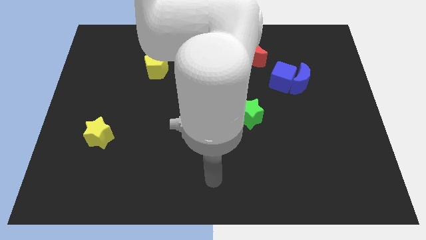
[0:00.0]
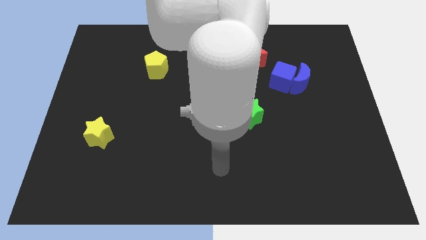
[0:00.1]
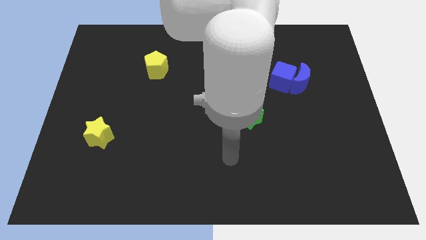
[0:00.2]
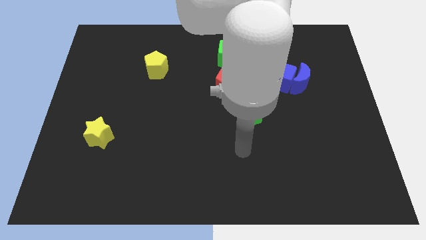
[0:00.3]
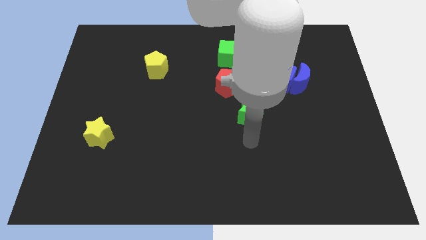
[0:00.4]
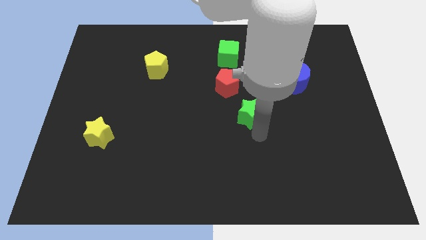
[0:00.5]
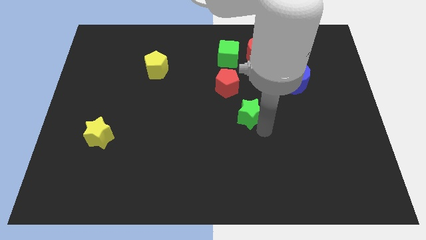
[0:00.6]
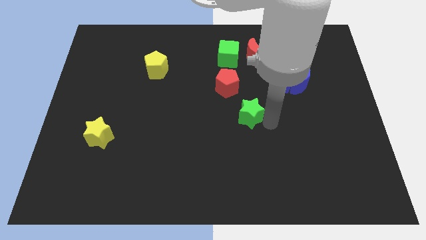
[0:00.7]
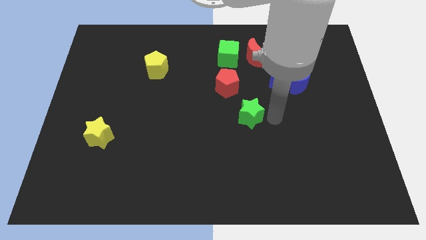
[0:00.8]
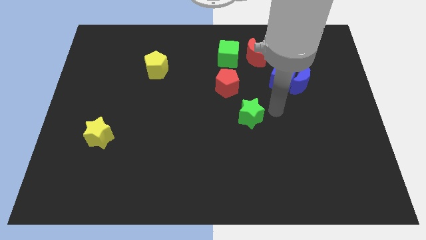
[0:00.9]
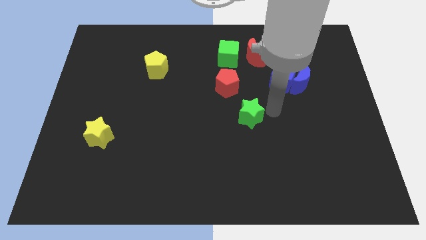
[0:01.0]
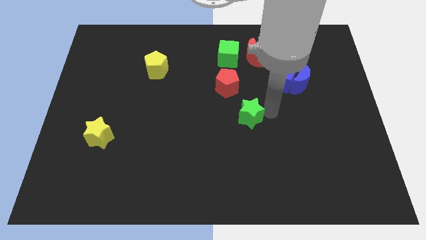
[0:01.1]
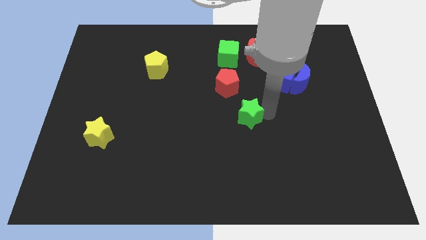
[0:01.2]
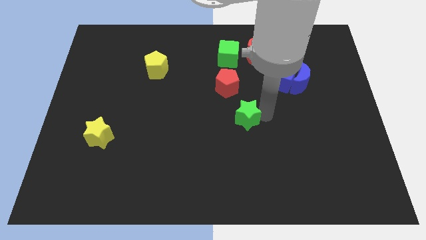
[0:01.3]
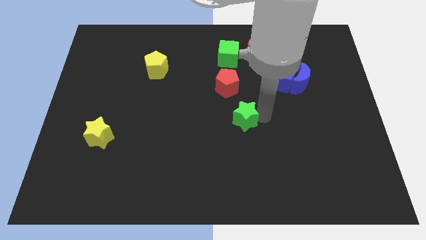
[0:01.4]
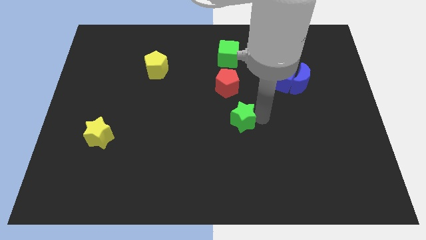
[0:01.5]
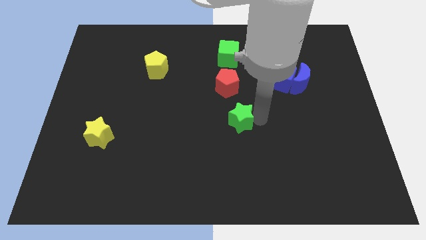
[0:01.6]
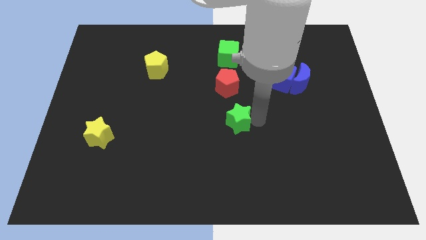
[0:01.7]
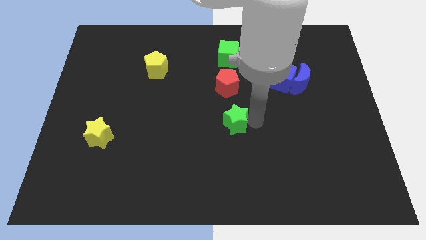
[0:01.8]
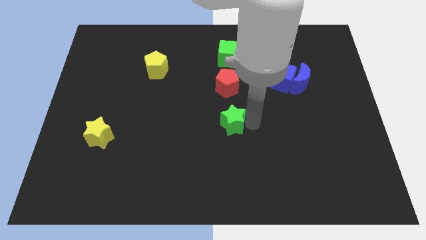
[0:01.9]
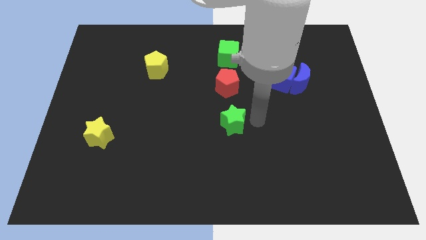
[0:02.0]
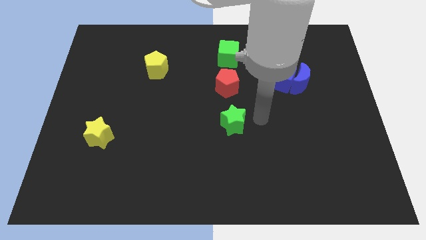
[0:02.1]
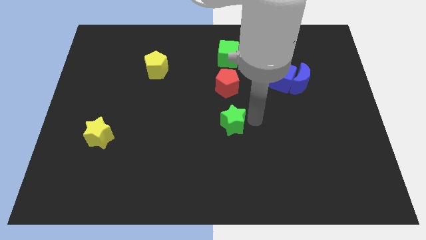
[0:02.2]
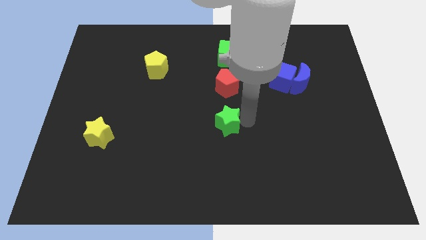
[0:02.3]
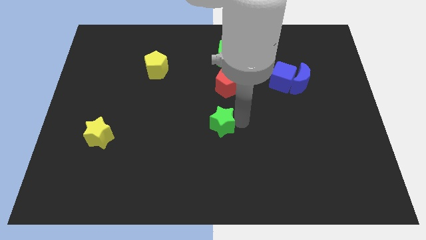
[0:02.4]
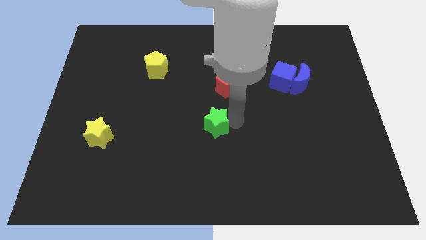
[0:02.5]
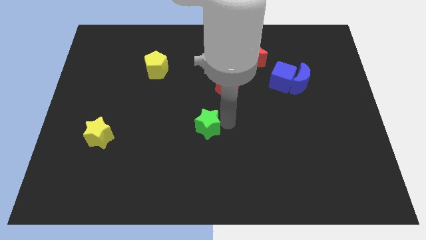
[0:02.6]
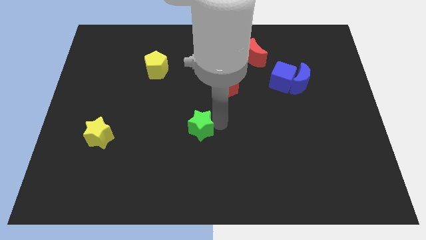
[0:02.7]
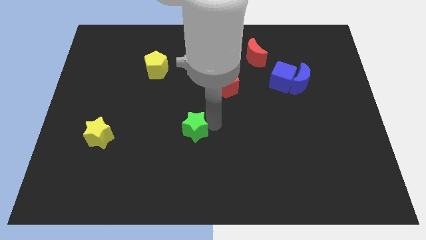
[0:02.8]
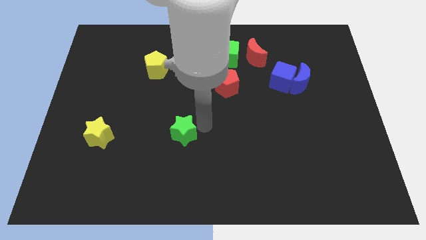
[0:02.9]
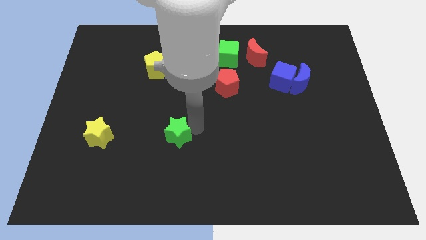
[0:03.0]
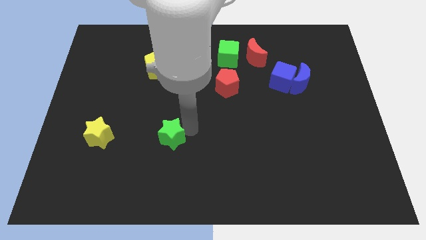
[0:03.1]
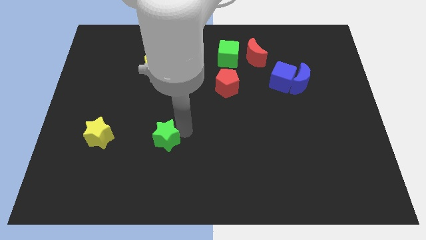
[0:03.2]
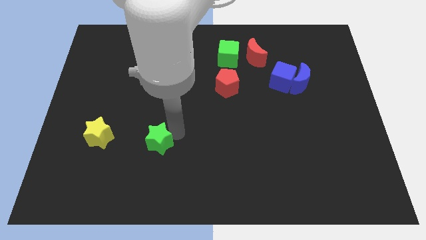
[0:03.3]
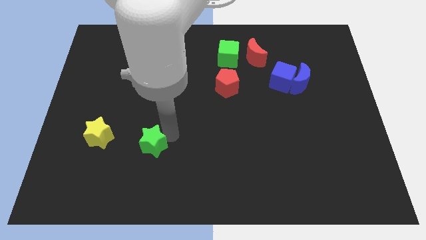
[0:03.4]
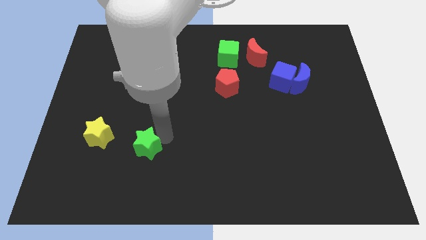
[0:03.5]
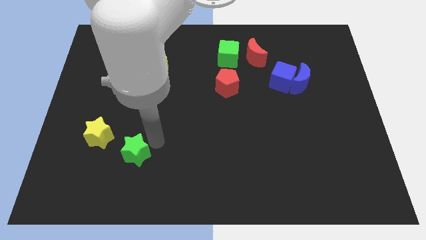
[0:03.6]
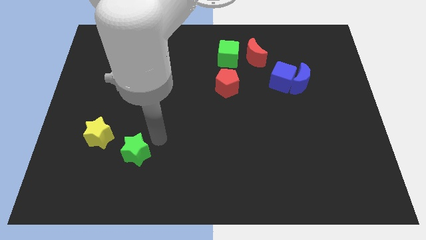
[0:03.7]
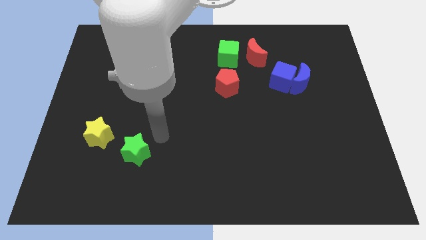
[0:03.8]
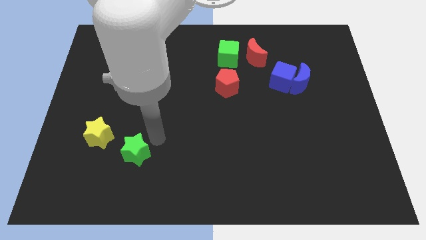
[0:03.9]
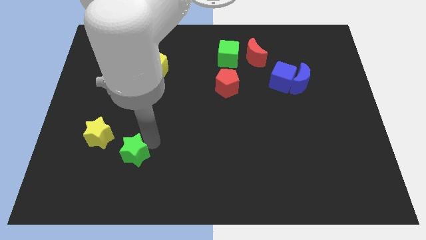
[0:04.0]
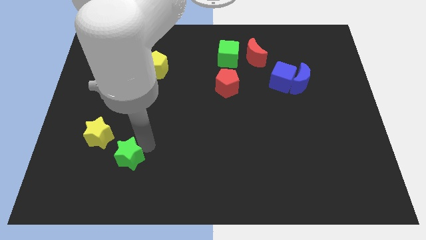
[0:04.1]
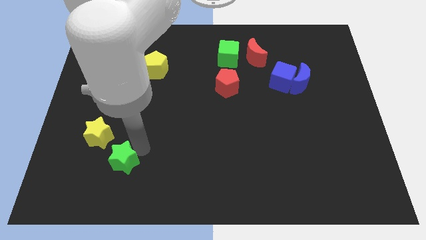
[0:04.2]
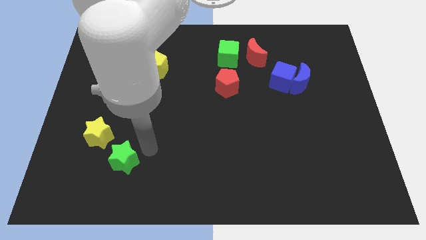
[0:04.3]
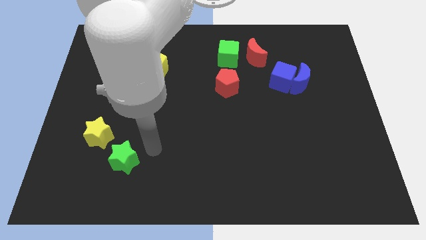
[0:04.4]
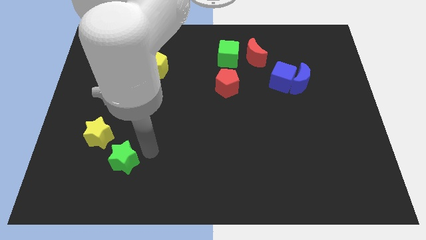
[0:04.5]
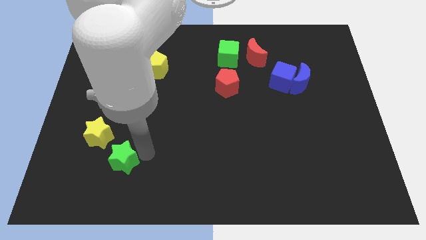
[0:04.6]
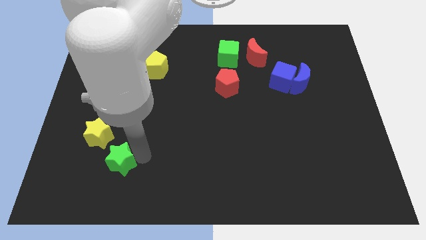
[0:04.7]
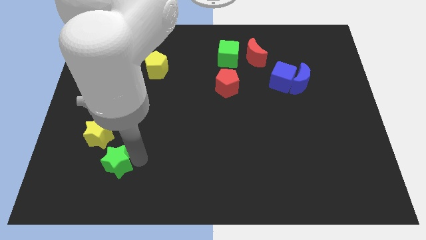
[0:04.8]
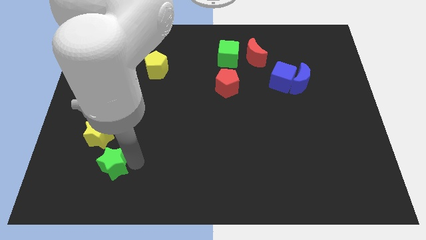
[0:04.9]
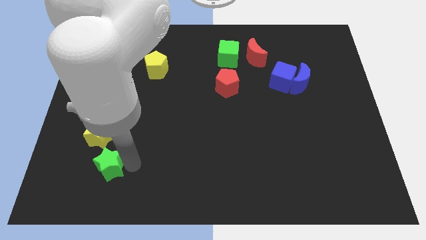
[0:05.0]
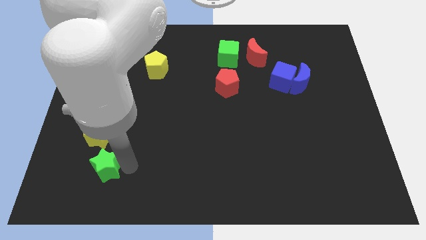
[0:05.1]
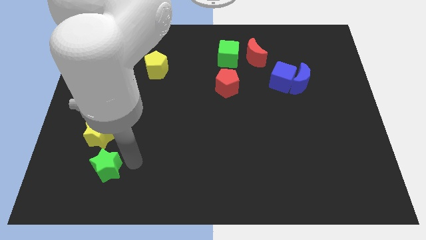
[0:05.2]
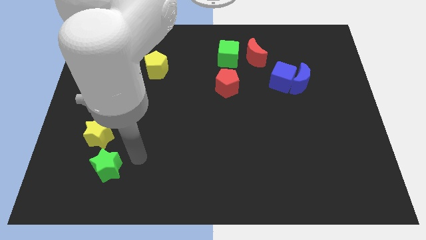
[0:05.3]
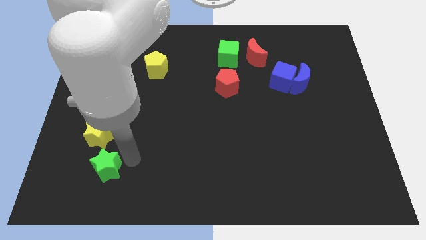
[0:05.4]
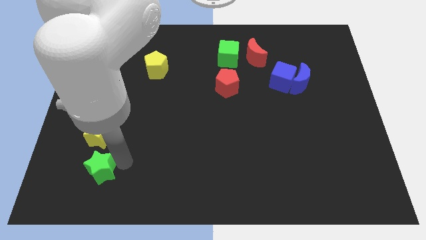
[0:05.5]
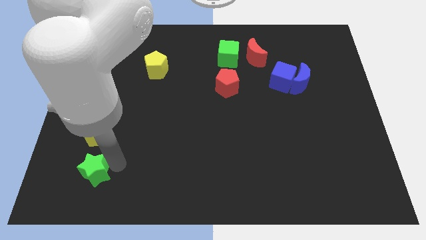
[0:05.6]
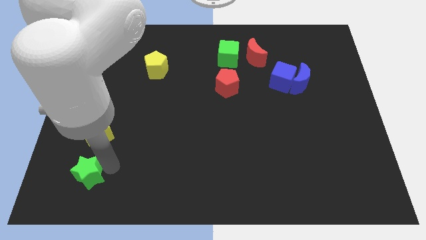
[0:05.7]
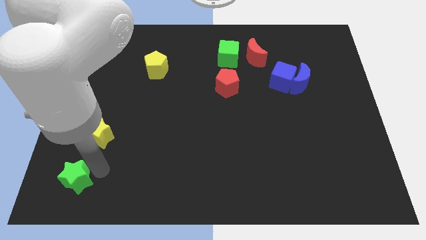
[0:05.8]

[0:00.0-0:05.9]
put the green star to the lower left corner

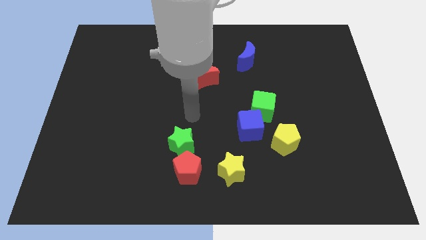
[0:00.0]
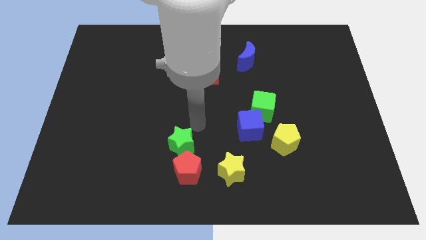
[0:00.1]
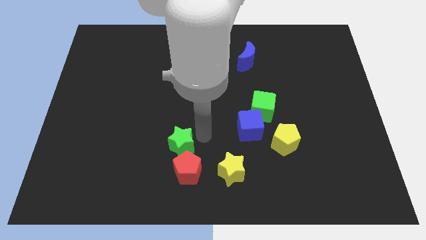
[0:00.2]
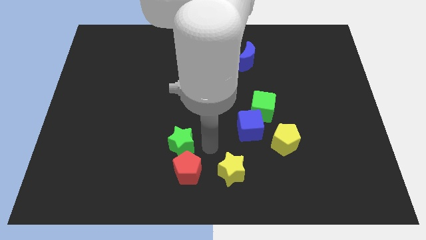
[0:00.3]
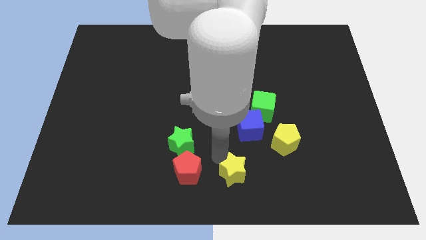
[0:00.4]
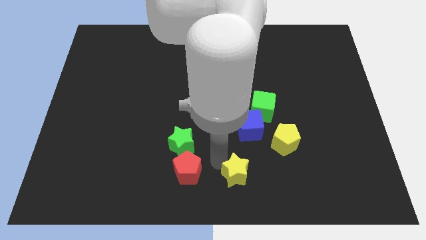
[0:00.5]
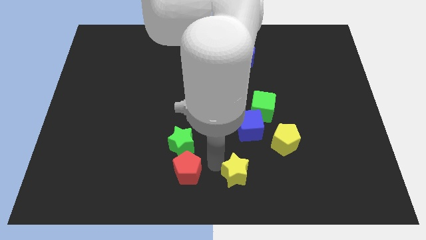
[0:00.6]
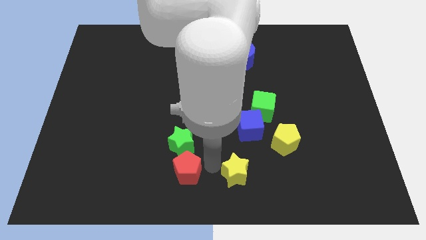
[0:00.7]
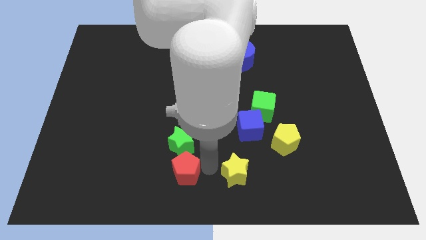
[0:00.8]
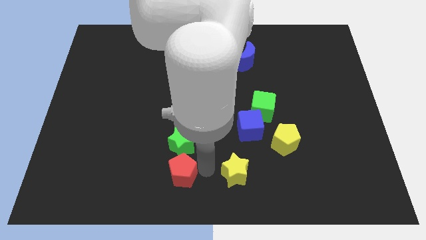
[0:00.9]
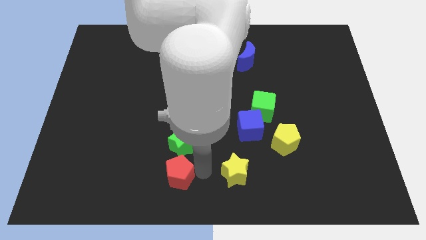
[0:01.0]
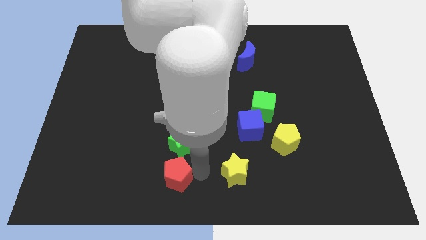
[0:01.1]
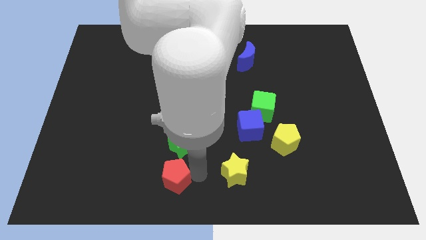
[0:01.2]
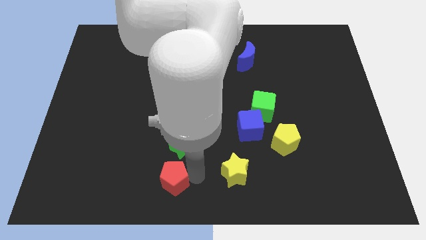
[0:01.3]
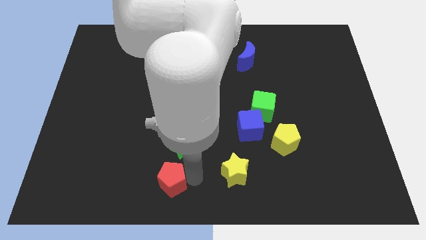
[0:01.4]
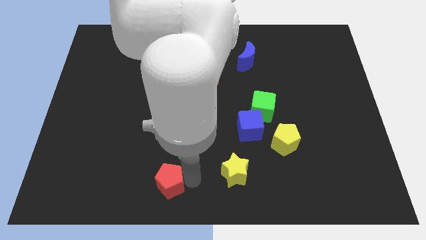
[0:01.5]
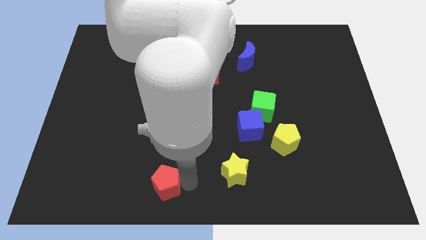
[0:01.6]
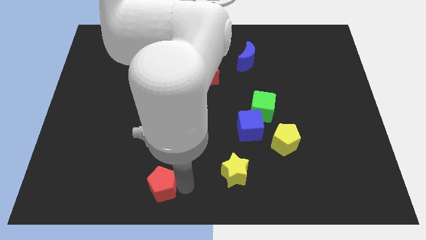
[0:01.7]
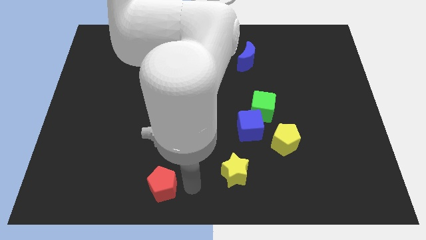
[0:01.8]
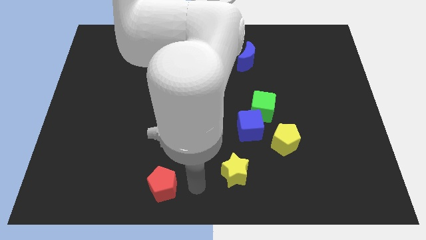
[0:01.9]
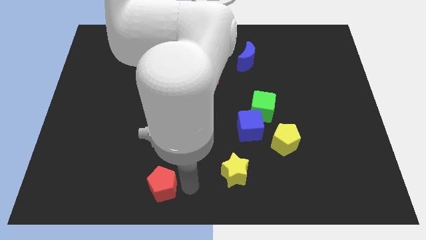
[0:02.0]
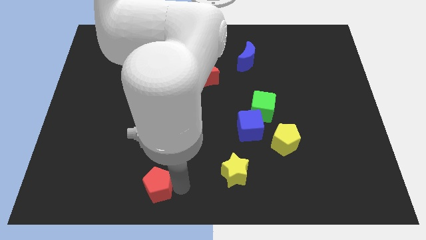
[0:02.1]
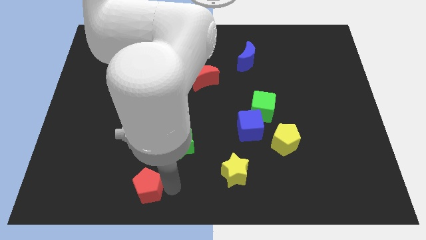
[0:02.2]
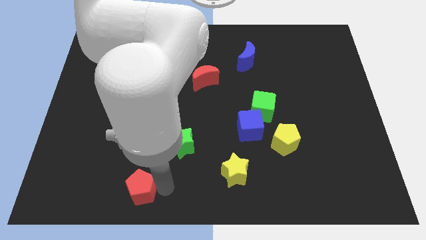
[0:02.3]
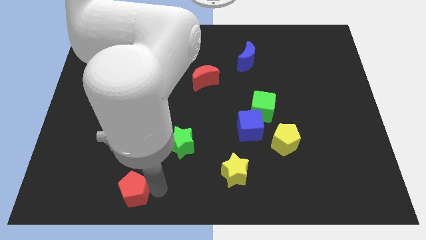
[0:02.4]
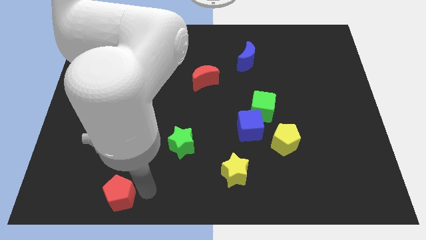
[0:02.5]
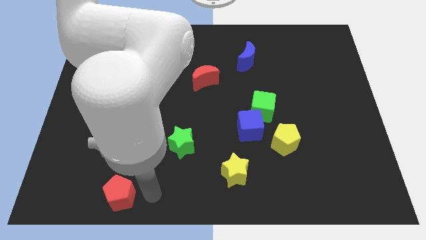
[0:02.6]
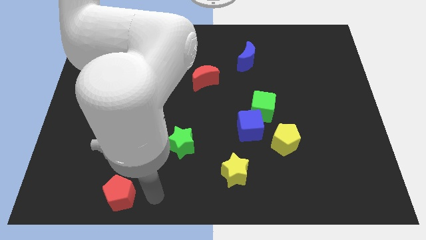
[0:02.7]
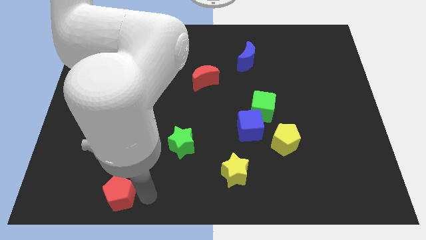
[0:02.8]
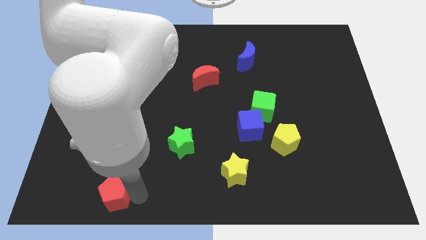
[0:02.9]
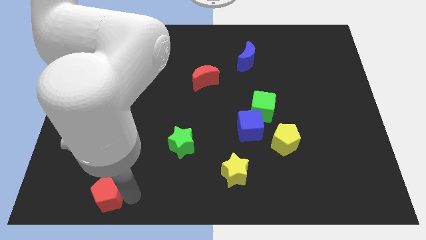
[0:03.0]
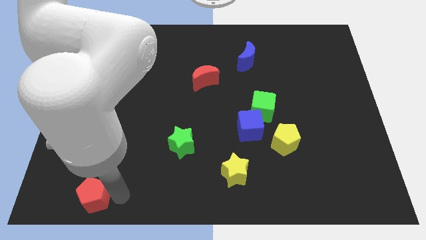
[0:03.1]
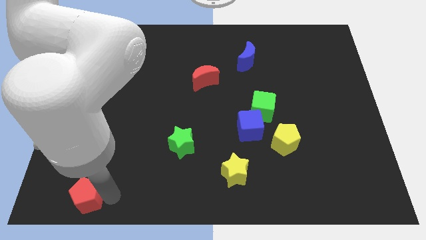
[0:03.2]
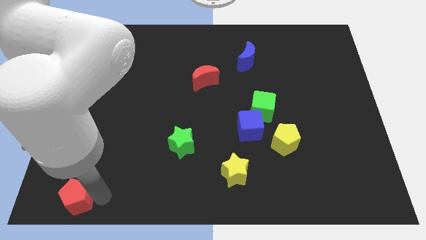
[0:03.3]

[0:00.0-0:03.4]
push the red pentagon to the bottom left
